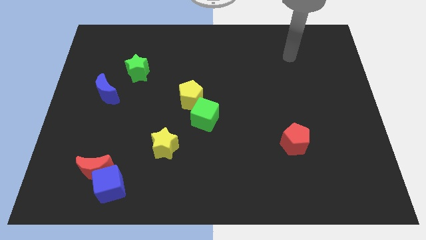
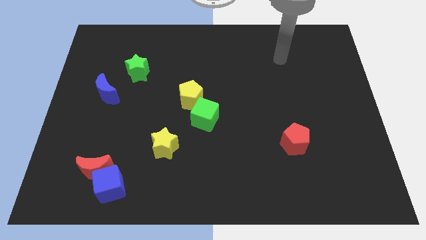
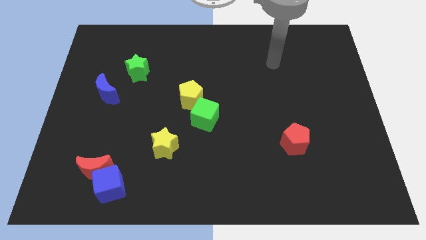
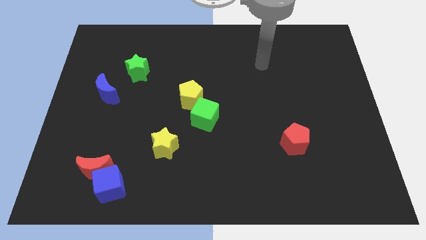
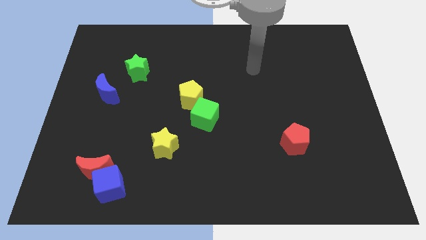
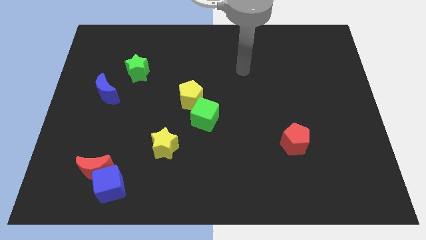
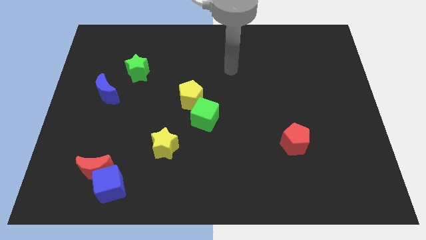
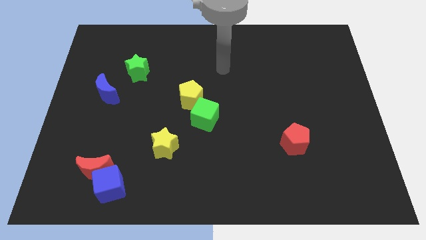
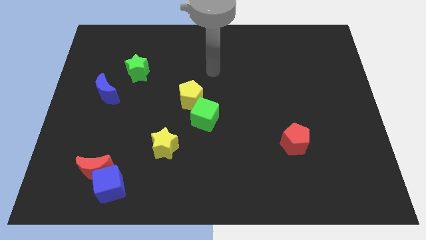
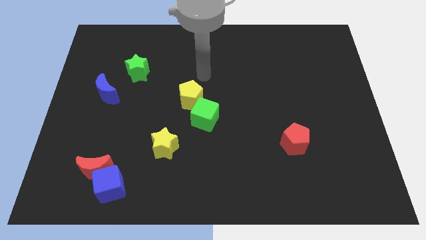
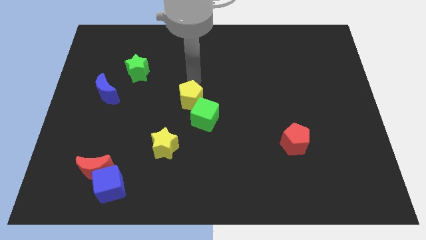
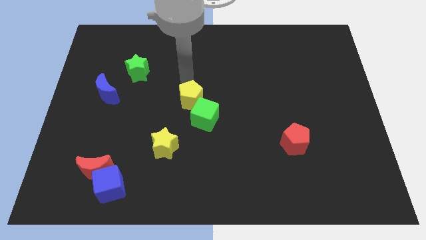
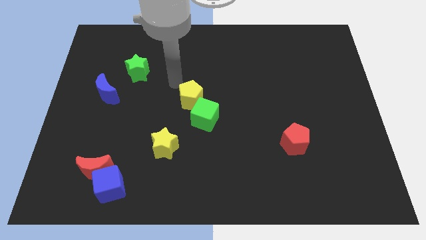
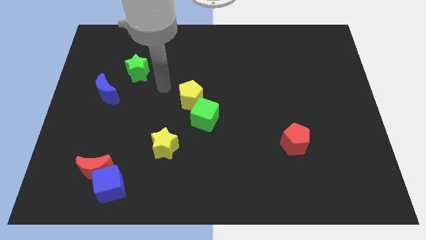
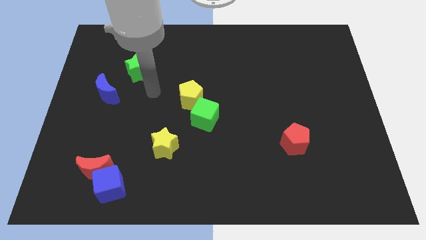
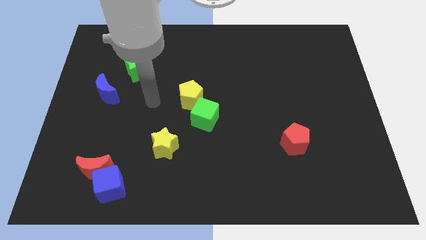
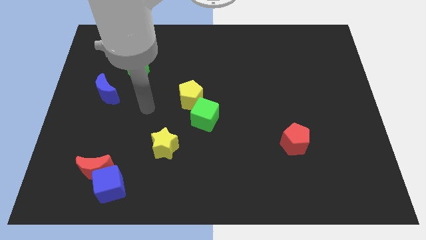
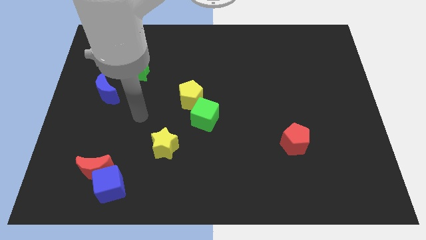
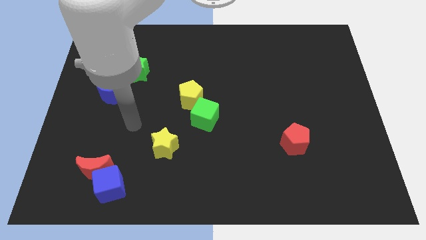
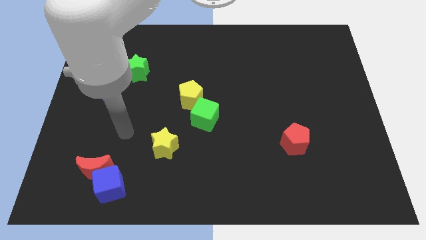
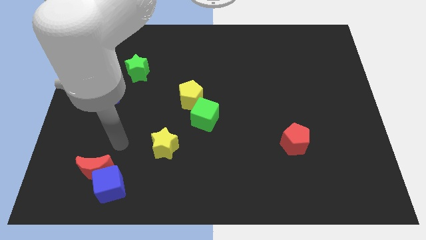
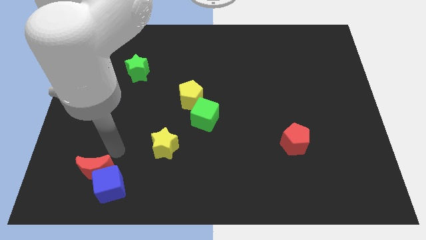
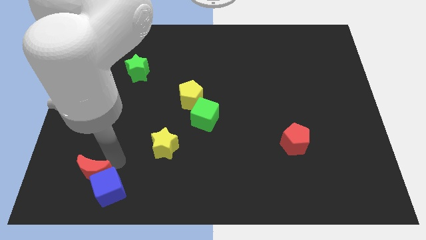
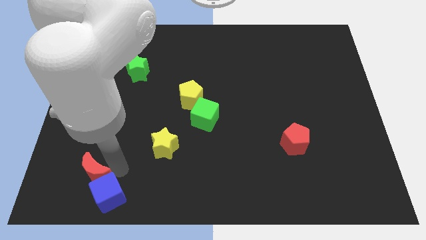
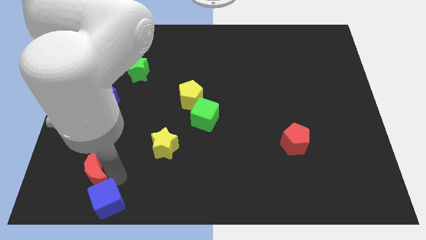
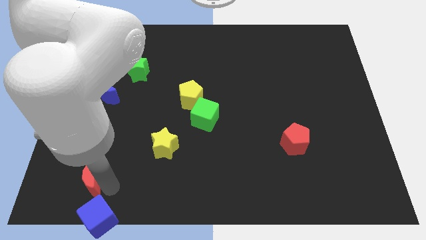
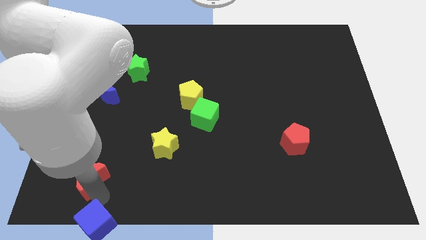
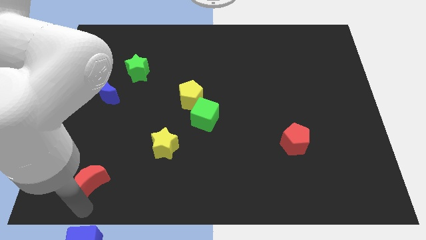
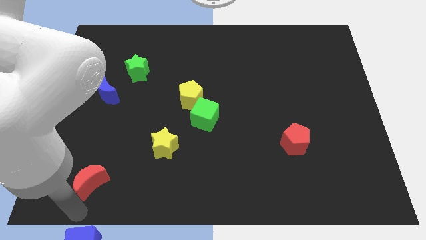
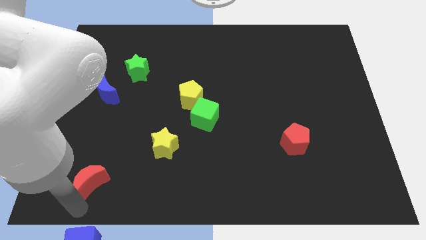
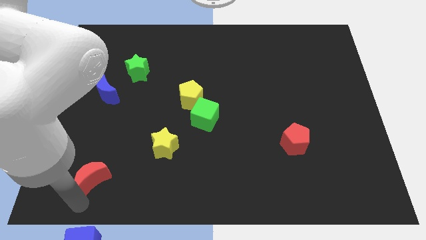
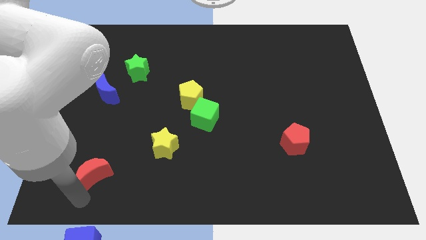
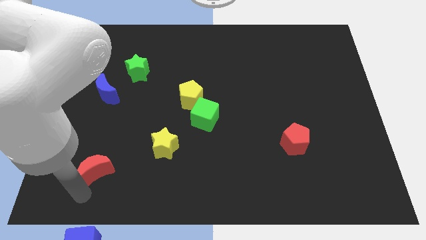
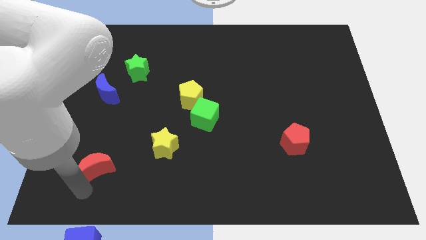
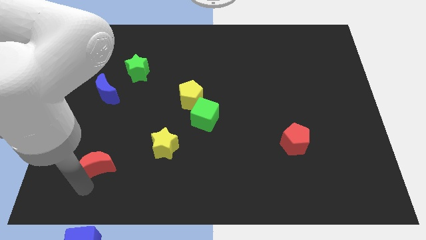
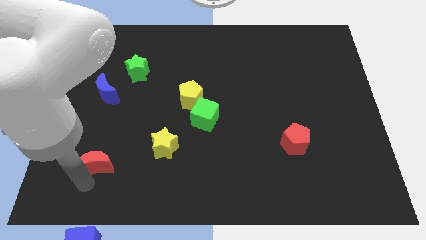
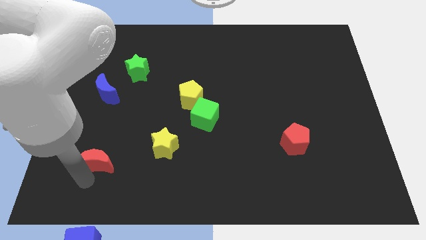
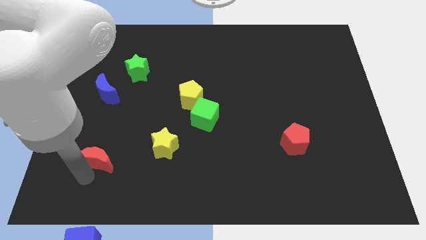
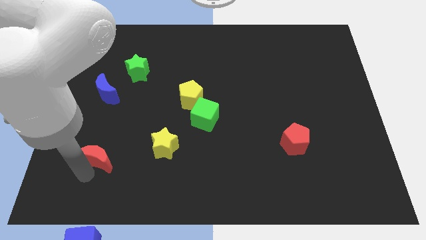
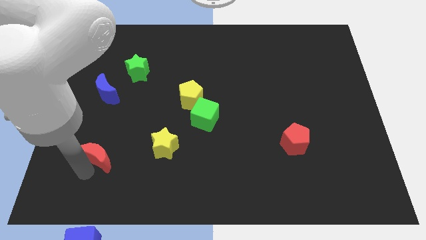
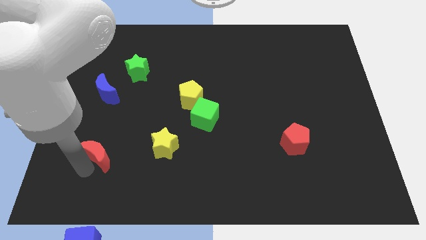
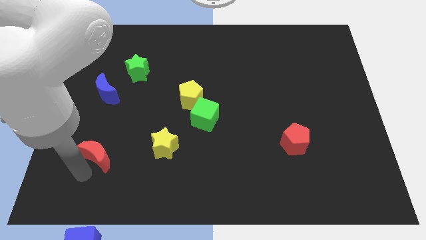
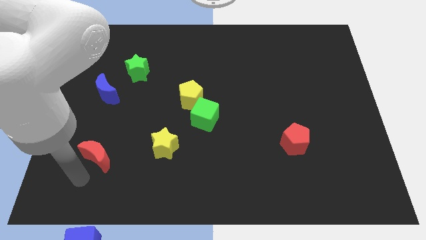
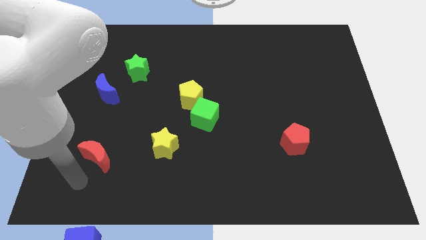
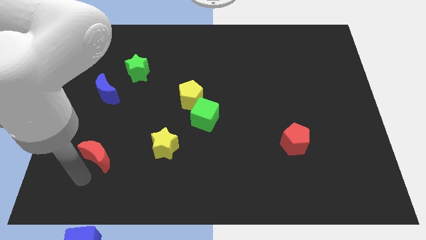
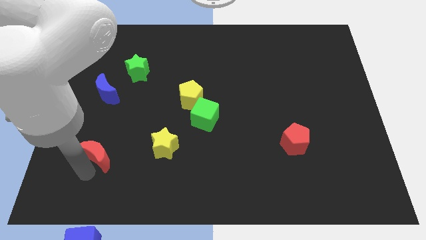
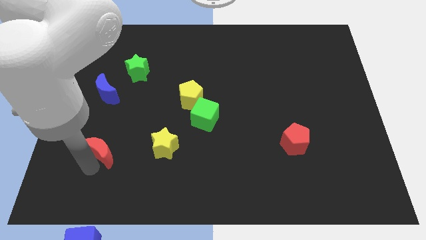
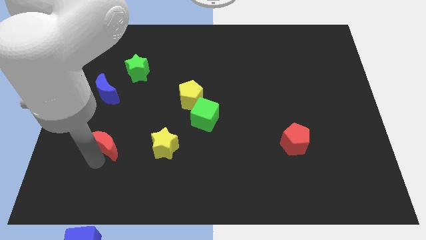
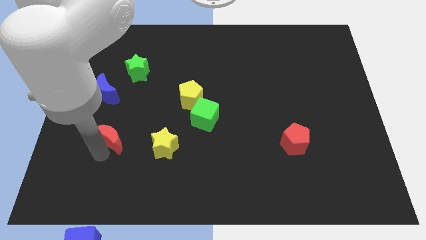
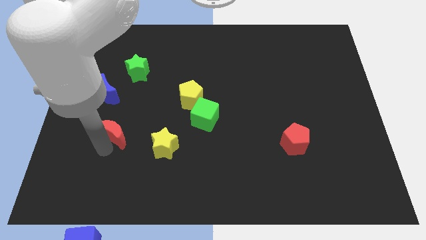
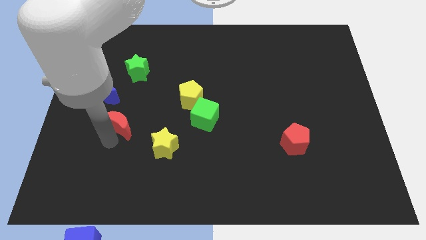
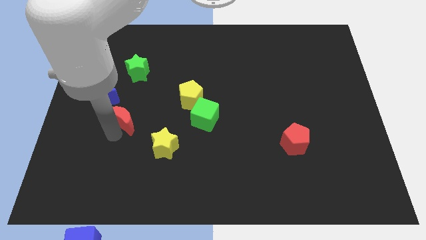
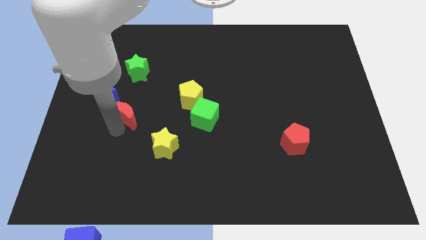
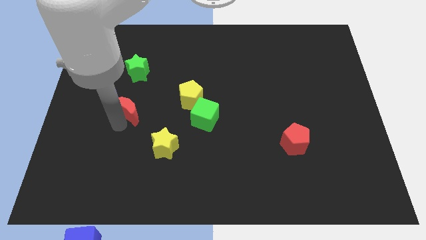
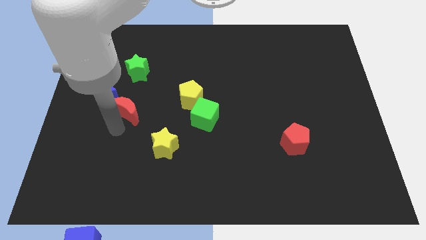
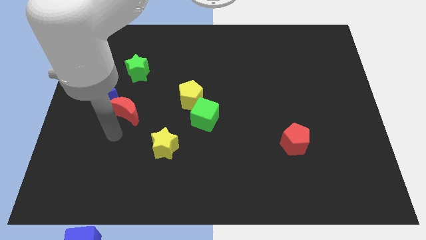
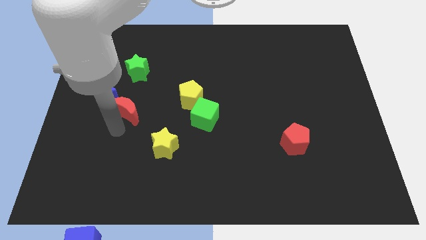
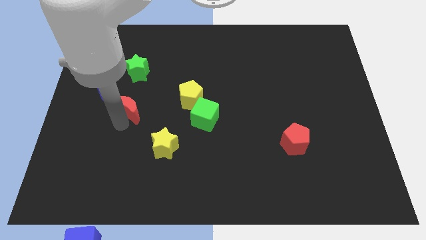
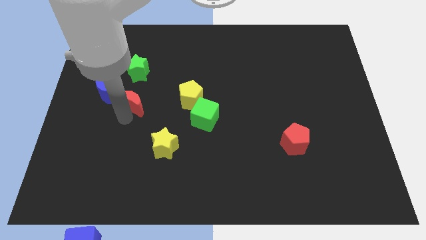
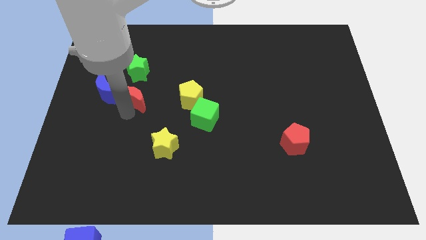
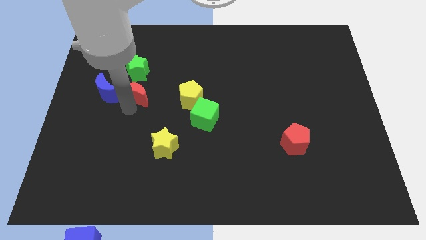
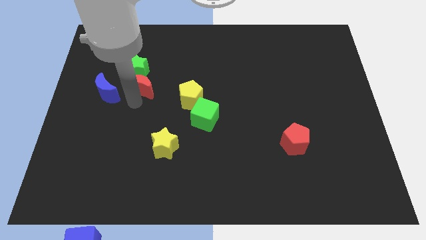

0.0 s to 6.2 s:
move the red moon to the green star
